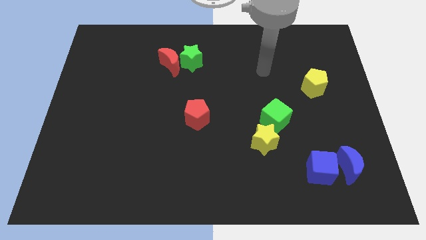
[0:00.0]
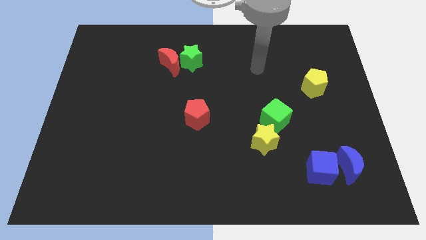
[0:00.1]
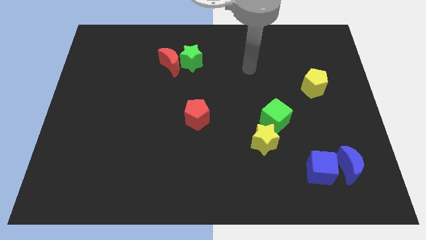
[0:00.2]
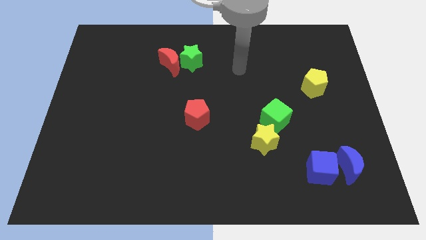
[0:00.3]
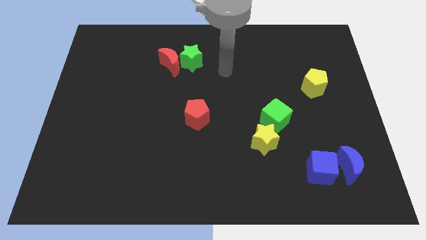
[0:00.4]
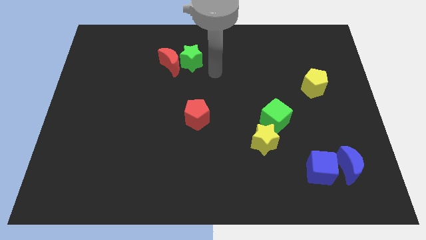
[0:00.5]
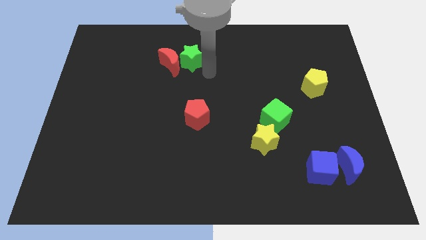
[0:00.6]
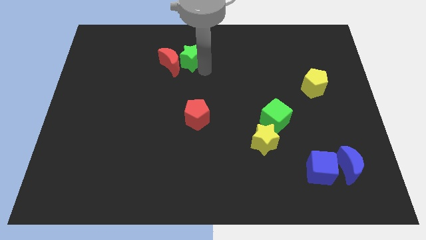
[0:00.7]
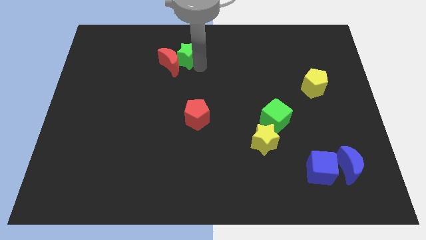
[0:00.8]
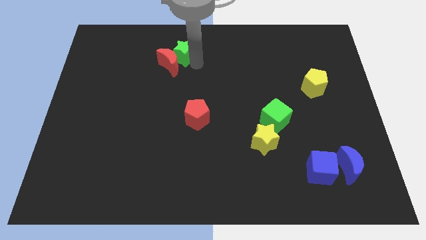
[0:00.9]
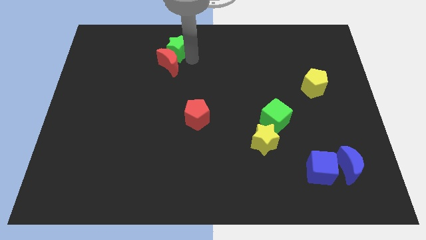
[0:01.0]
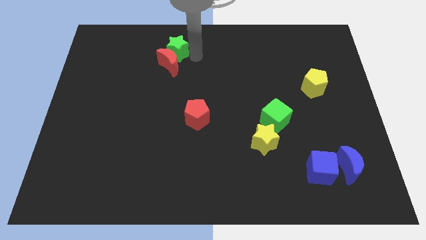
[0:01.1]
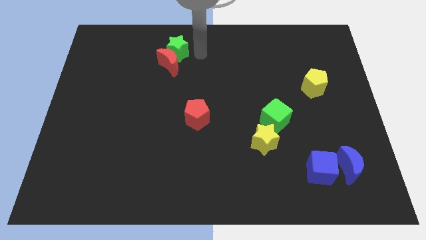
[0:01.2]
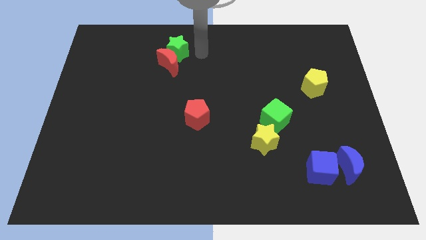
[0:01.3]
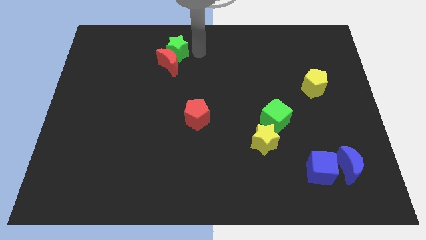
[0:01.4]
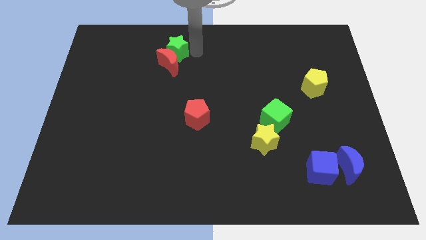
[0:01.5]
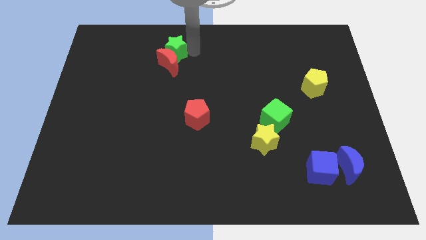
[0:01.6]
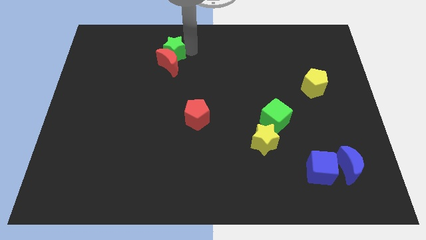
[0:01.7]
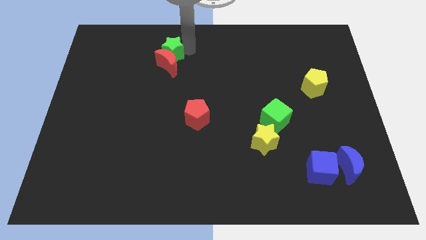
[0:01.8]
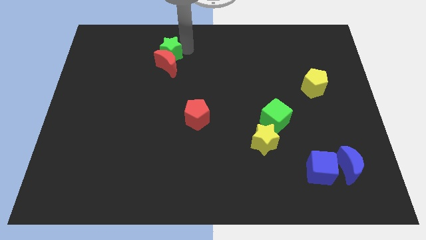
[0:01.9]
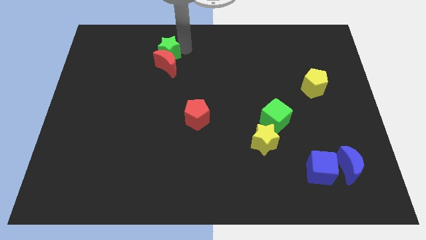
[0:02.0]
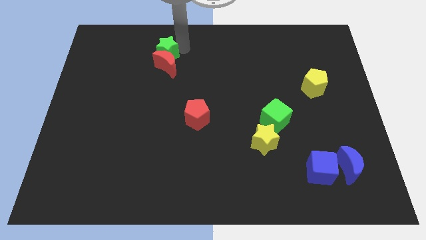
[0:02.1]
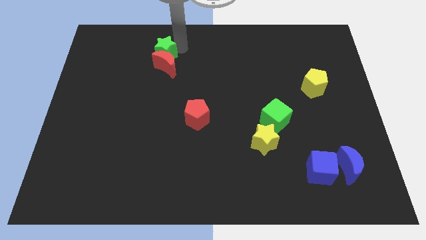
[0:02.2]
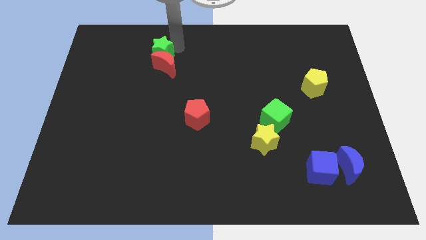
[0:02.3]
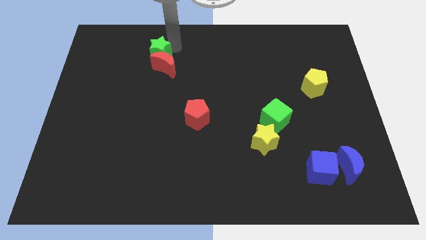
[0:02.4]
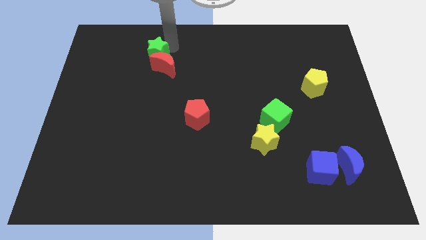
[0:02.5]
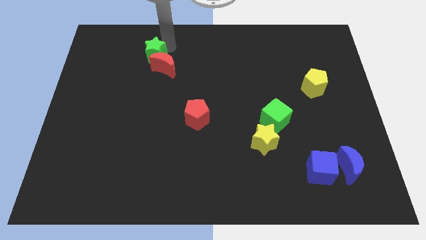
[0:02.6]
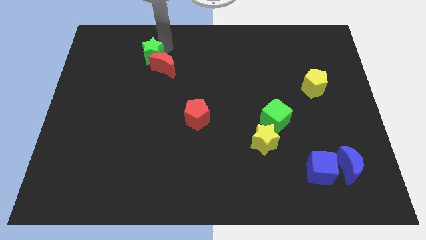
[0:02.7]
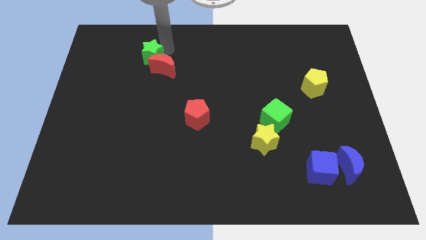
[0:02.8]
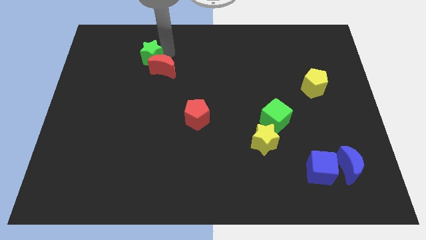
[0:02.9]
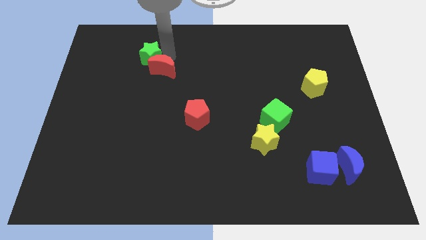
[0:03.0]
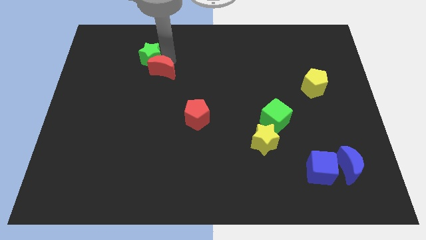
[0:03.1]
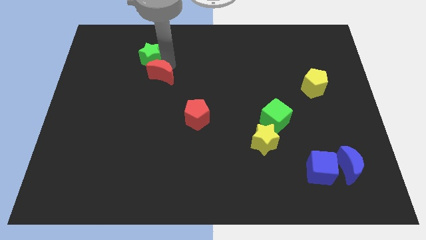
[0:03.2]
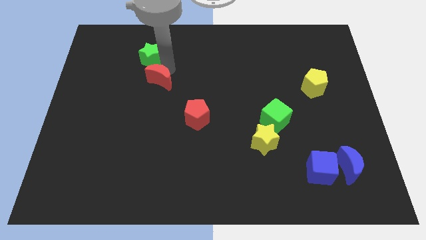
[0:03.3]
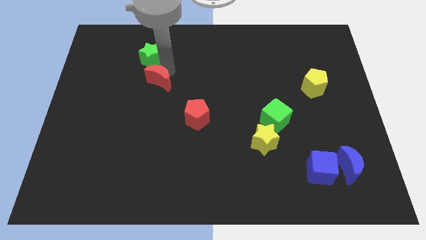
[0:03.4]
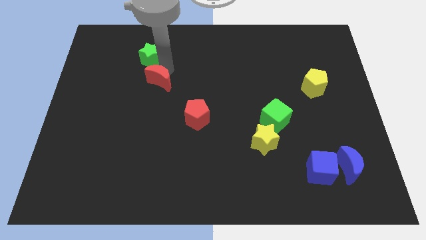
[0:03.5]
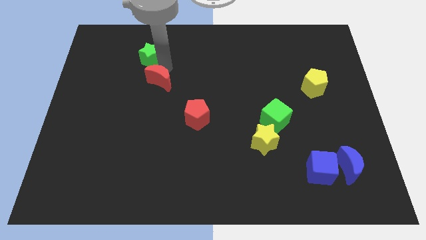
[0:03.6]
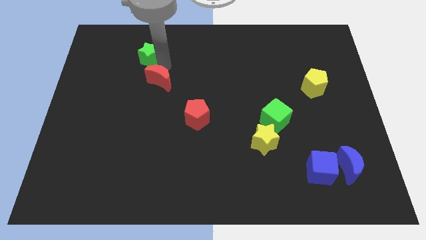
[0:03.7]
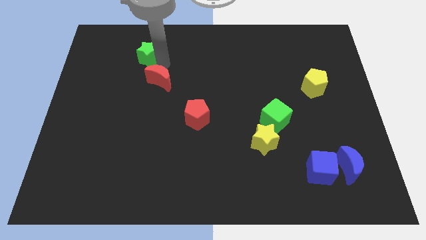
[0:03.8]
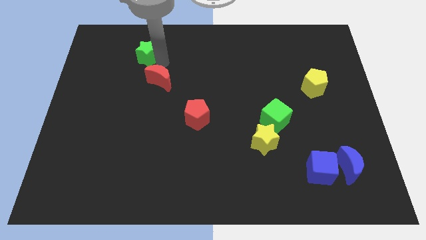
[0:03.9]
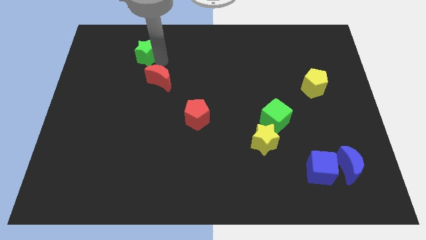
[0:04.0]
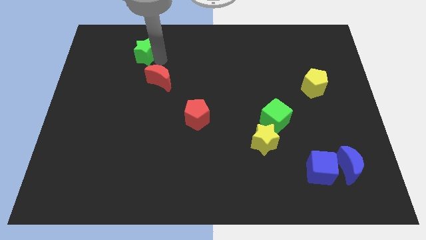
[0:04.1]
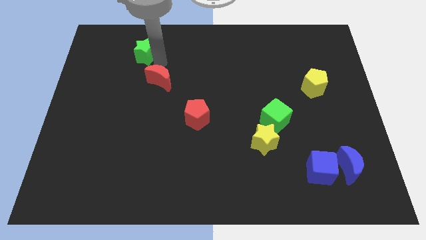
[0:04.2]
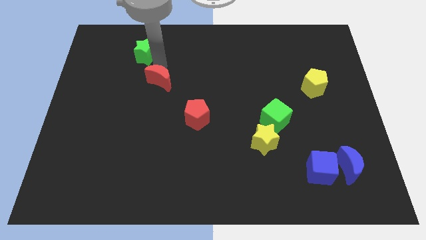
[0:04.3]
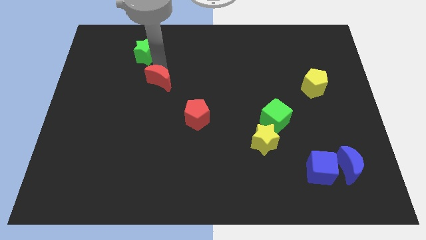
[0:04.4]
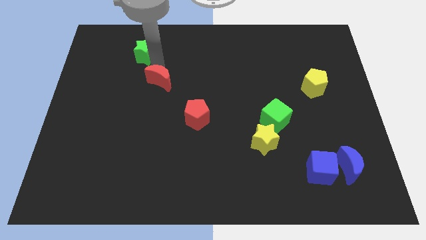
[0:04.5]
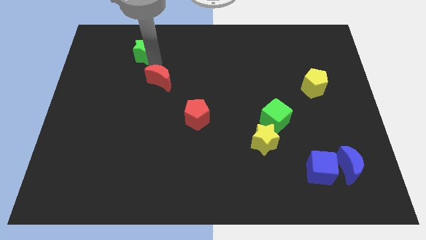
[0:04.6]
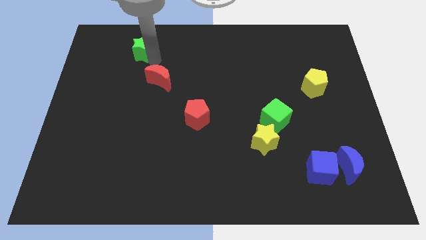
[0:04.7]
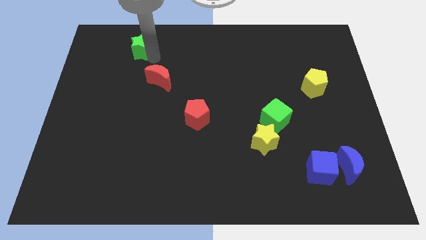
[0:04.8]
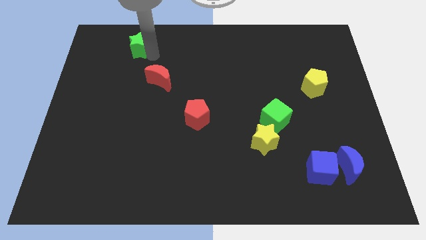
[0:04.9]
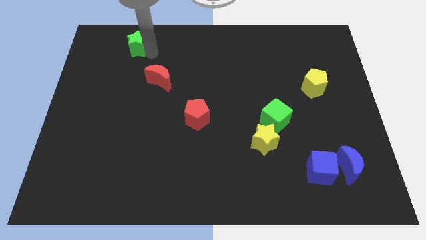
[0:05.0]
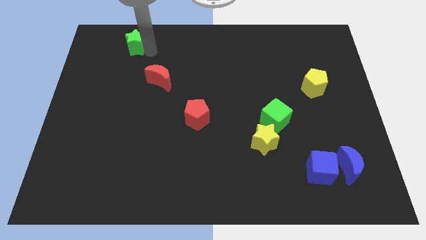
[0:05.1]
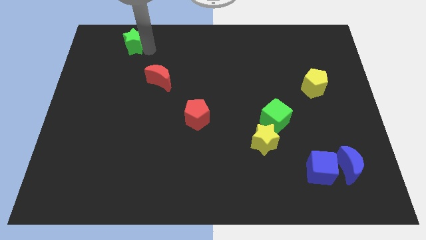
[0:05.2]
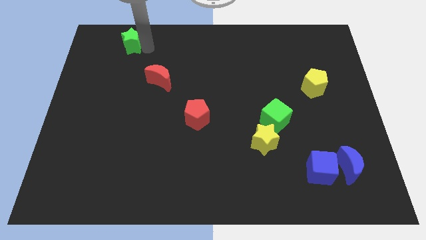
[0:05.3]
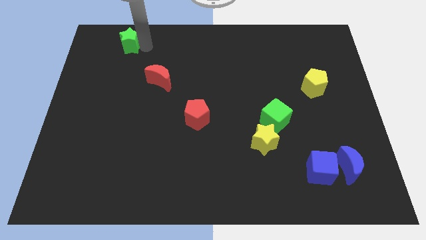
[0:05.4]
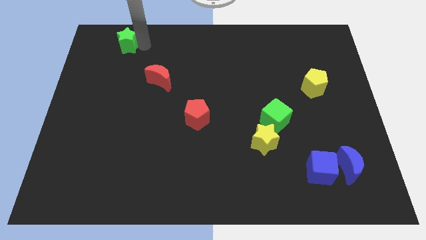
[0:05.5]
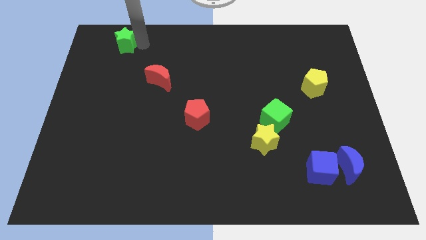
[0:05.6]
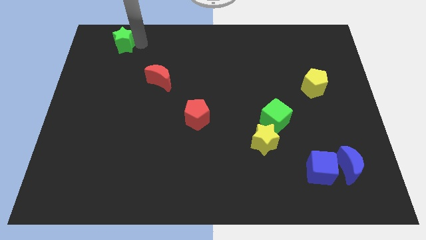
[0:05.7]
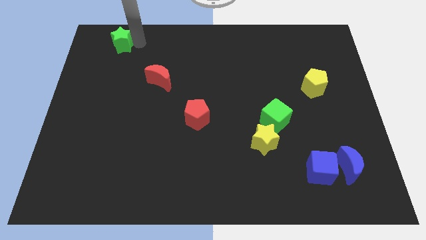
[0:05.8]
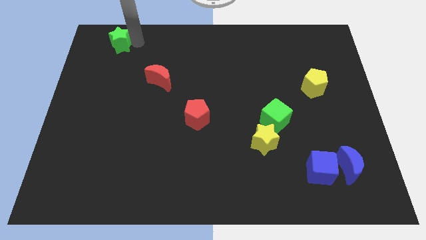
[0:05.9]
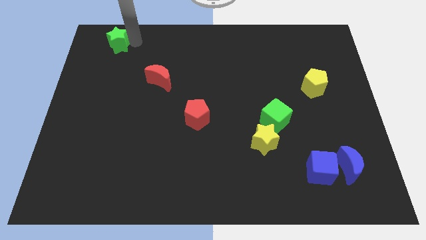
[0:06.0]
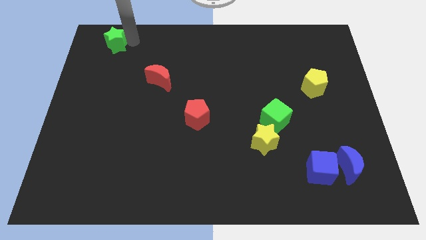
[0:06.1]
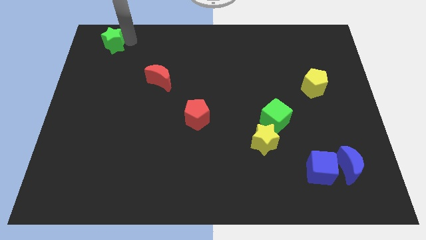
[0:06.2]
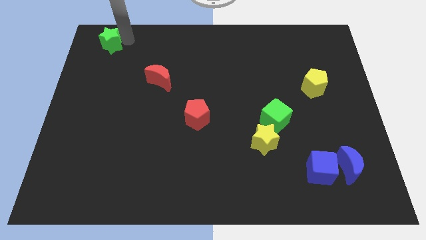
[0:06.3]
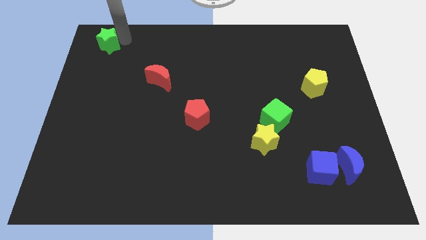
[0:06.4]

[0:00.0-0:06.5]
push the green star to the upper left corner
